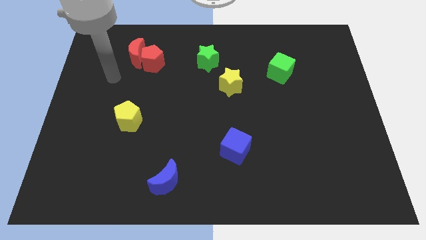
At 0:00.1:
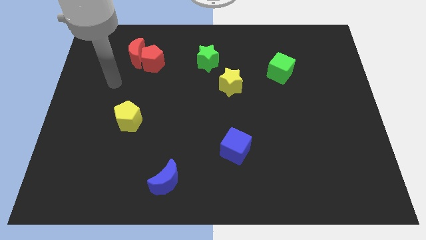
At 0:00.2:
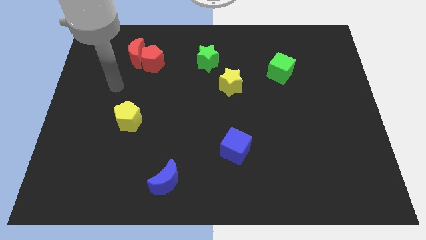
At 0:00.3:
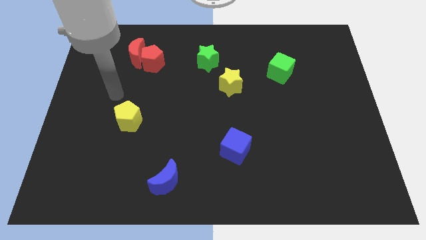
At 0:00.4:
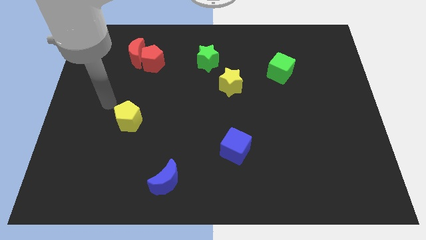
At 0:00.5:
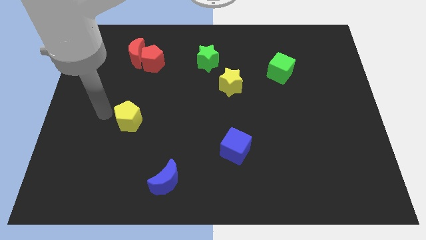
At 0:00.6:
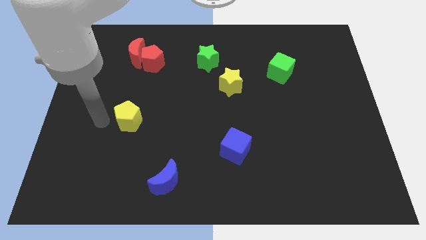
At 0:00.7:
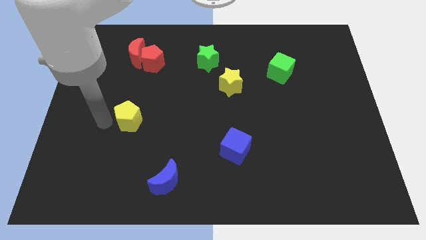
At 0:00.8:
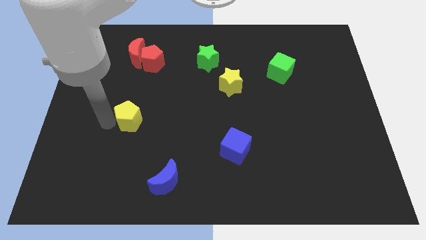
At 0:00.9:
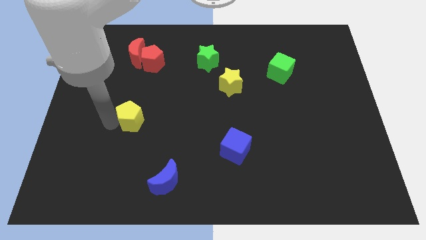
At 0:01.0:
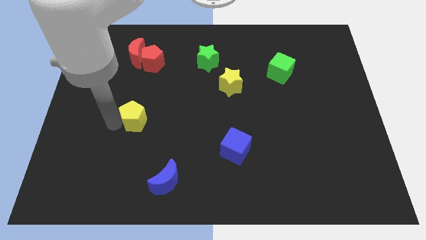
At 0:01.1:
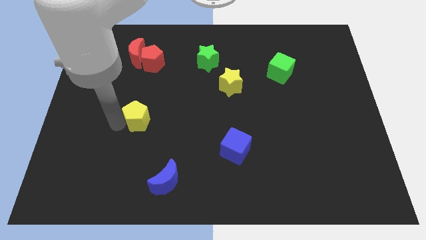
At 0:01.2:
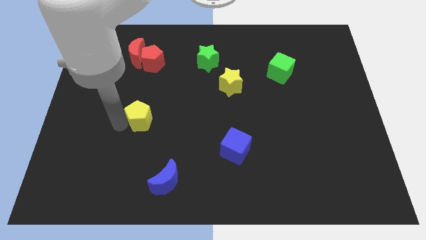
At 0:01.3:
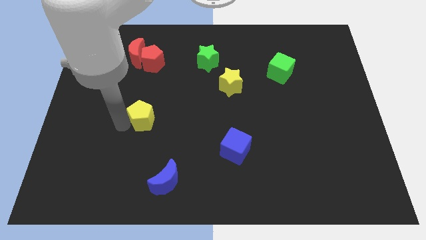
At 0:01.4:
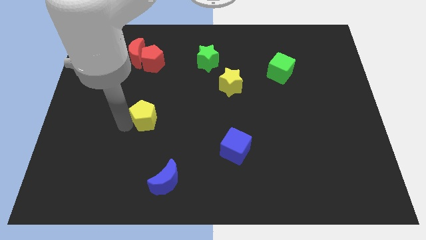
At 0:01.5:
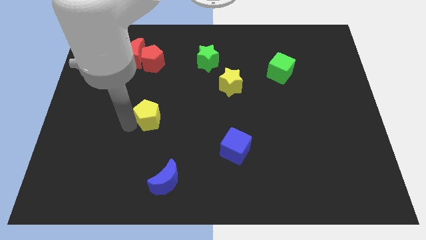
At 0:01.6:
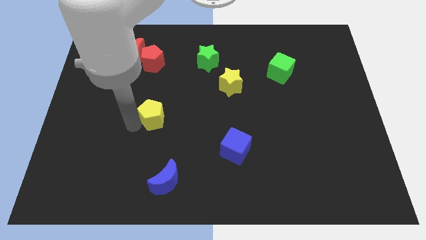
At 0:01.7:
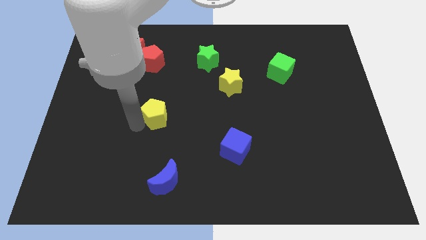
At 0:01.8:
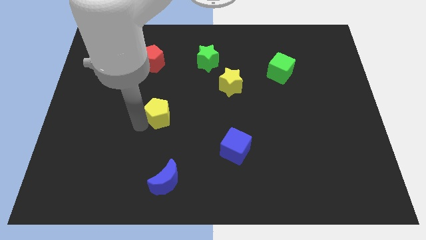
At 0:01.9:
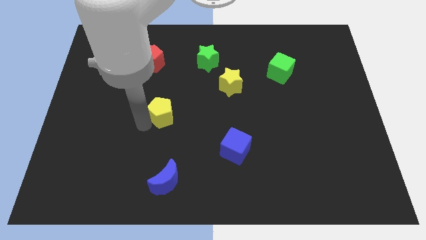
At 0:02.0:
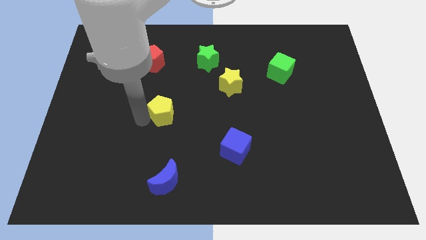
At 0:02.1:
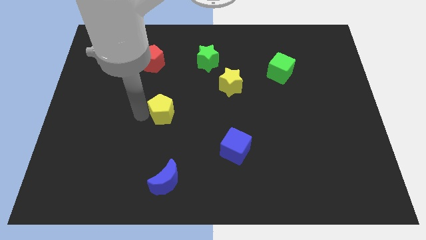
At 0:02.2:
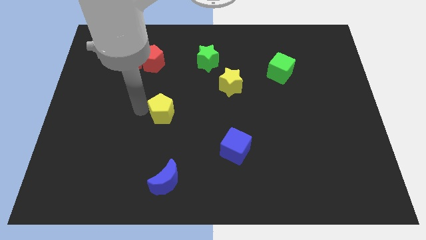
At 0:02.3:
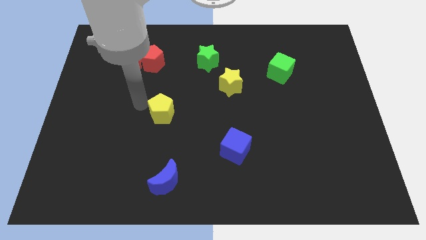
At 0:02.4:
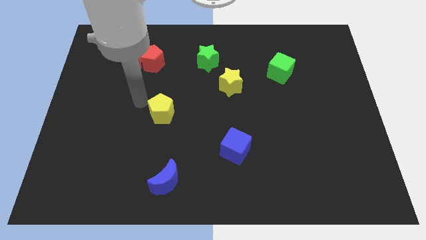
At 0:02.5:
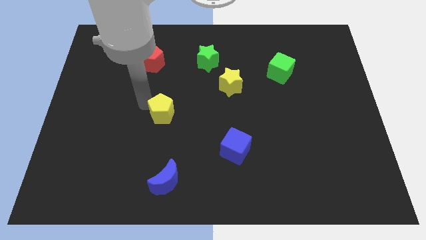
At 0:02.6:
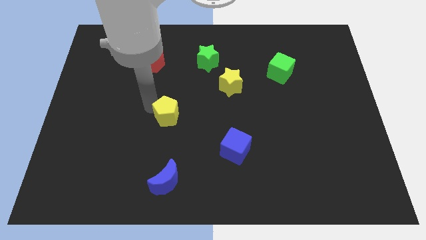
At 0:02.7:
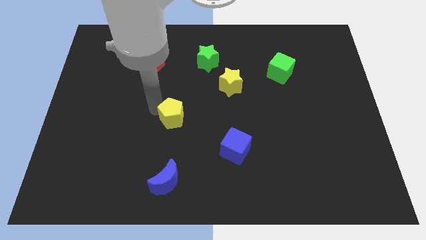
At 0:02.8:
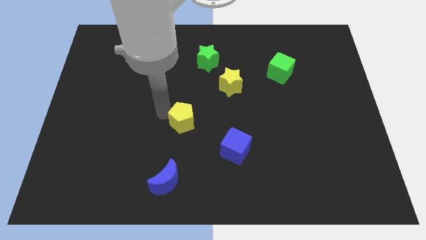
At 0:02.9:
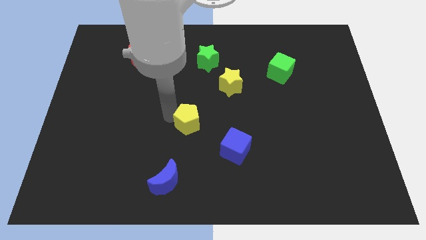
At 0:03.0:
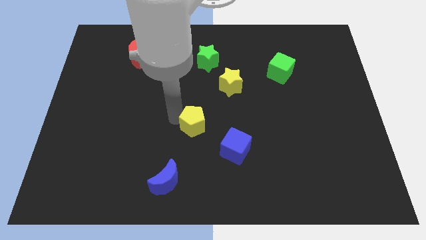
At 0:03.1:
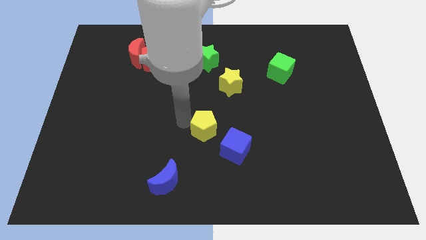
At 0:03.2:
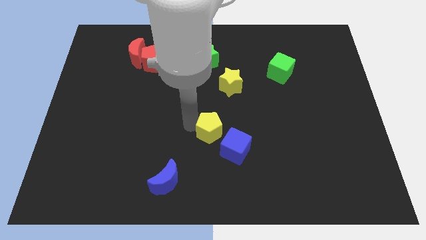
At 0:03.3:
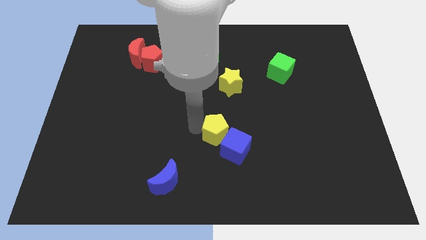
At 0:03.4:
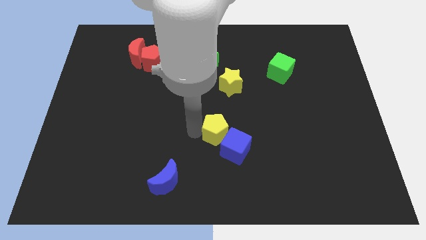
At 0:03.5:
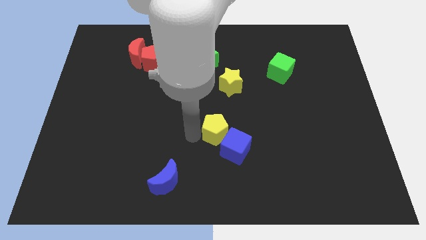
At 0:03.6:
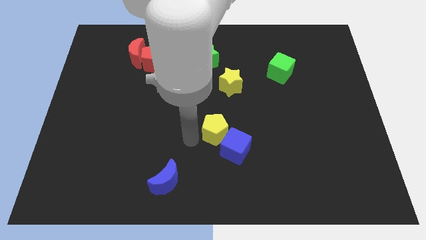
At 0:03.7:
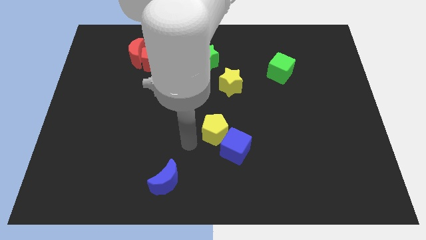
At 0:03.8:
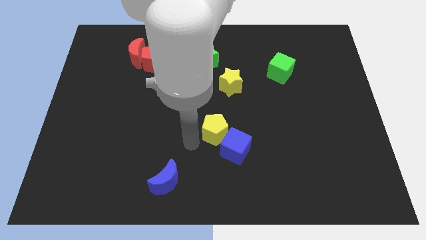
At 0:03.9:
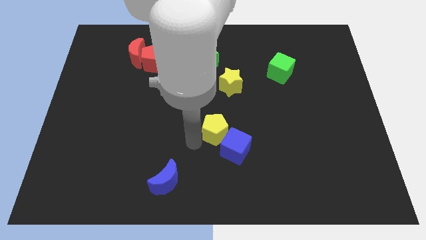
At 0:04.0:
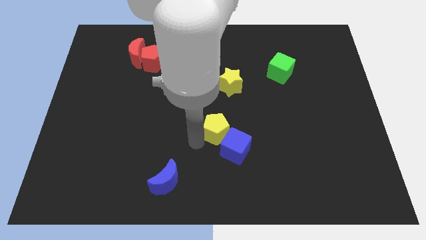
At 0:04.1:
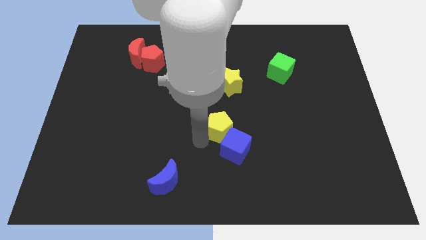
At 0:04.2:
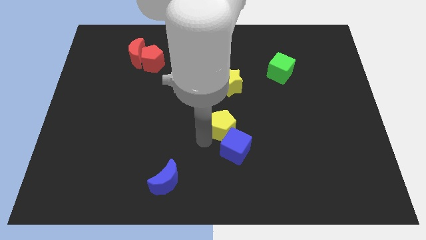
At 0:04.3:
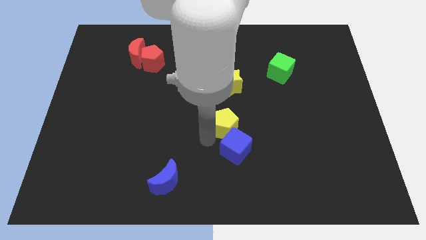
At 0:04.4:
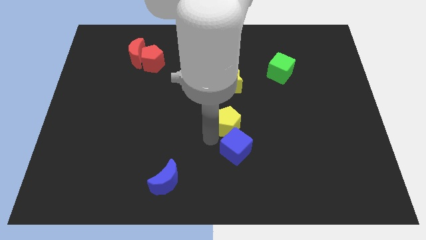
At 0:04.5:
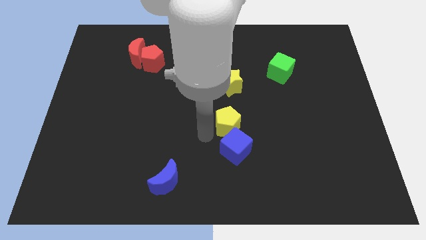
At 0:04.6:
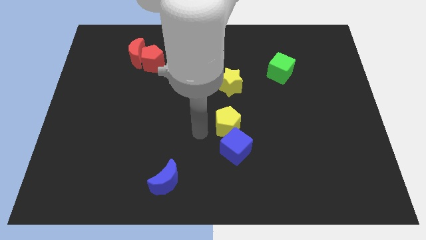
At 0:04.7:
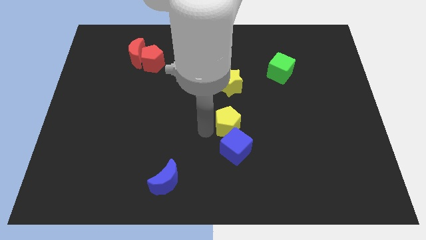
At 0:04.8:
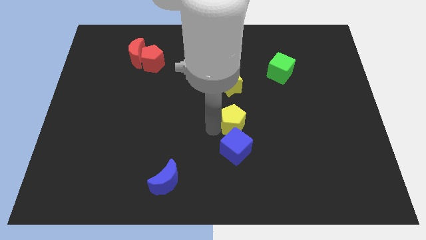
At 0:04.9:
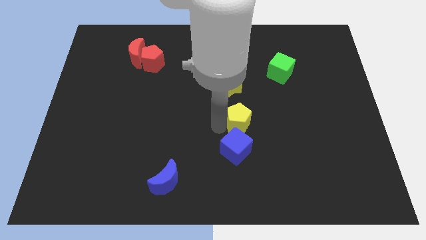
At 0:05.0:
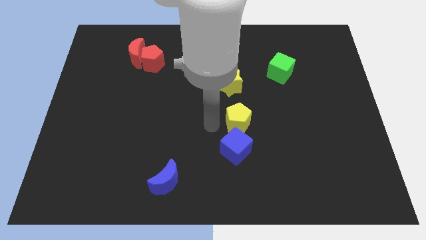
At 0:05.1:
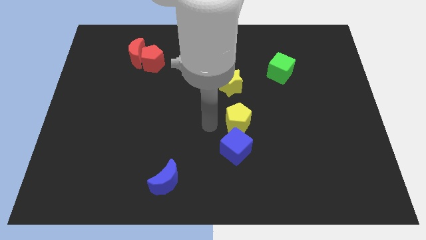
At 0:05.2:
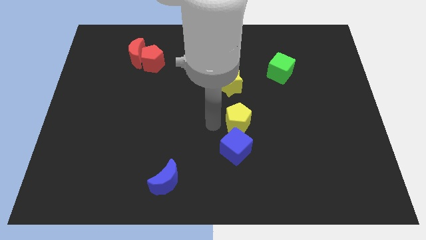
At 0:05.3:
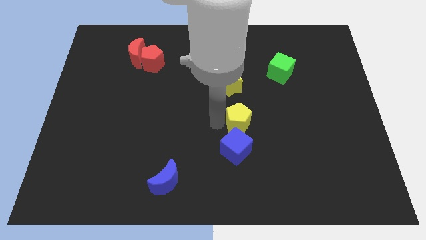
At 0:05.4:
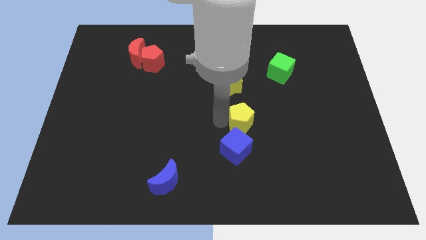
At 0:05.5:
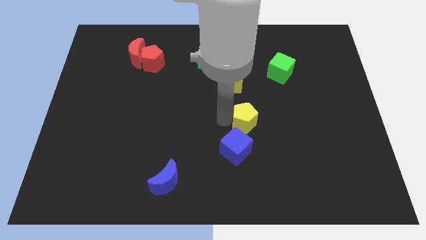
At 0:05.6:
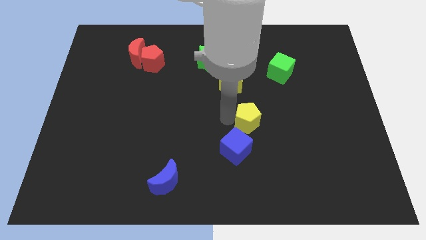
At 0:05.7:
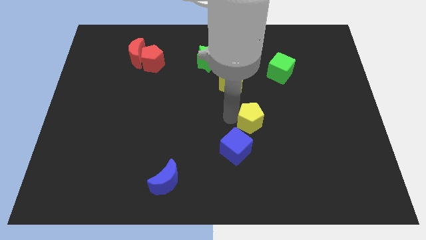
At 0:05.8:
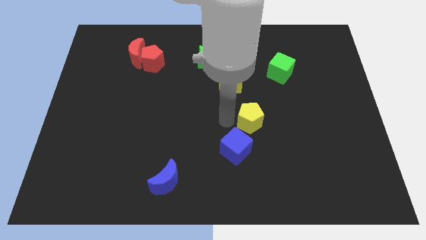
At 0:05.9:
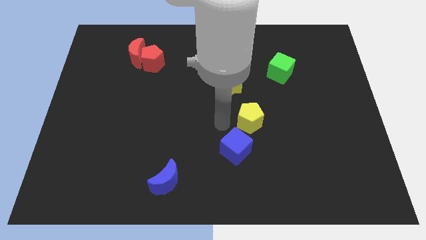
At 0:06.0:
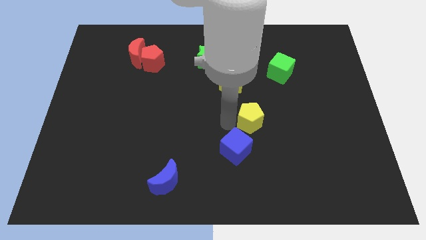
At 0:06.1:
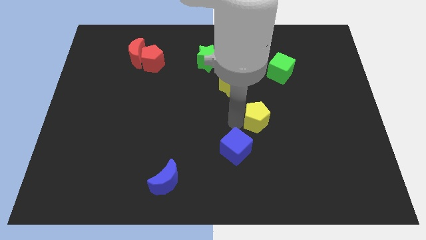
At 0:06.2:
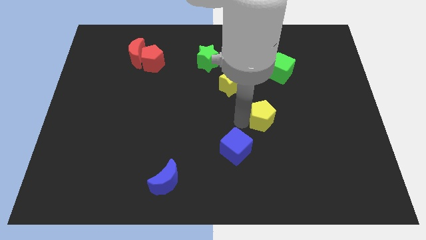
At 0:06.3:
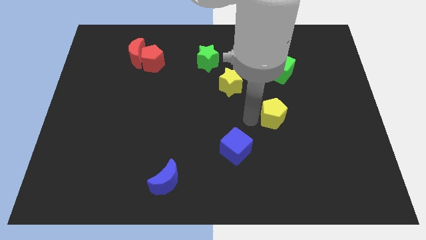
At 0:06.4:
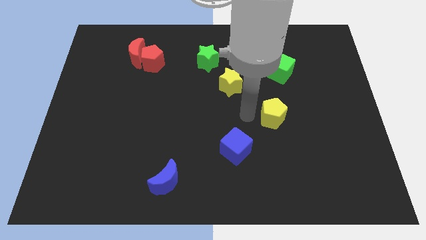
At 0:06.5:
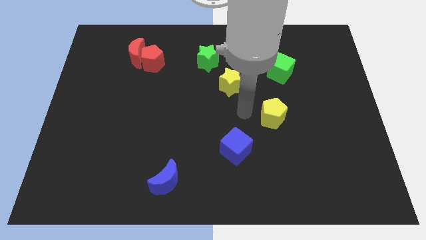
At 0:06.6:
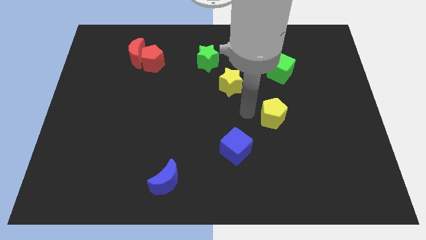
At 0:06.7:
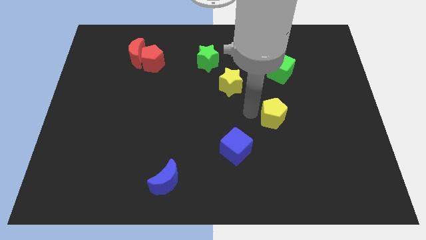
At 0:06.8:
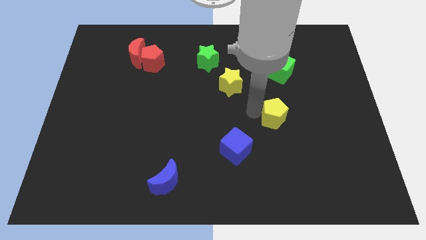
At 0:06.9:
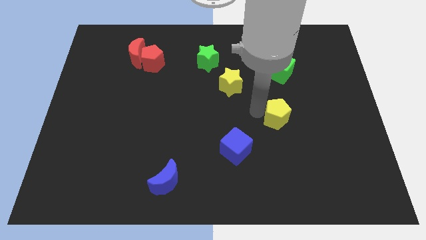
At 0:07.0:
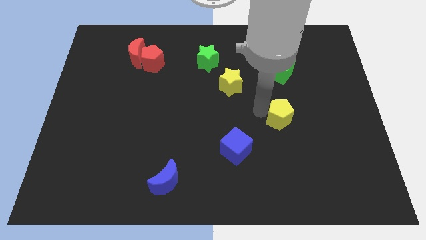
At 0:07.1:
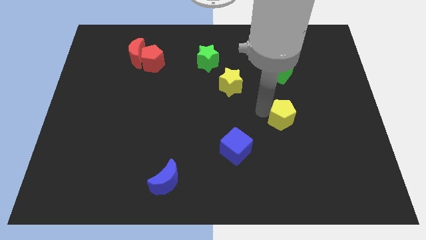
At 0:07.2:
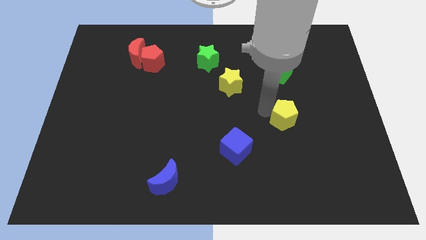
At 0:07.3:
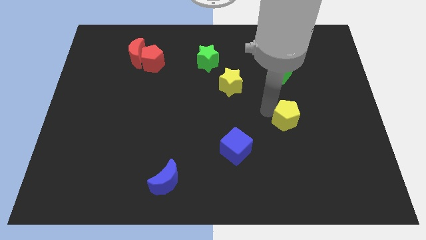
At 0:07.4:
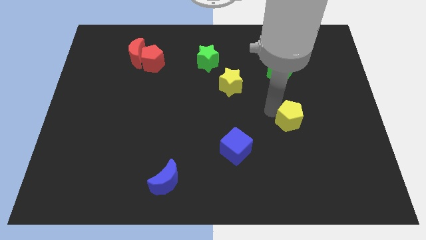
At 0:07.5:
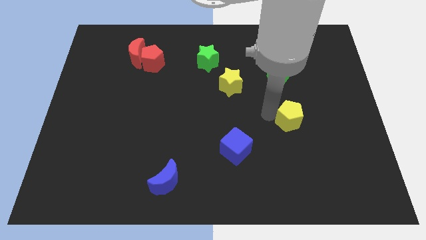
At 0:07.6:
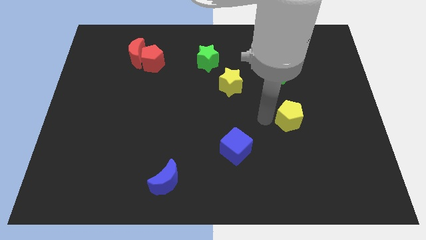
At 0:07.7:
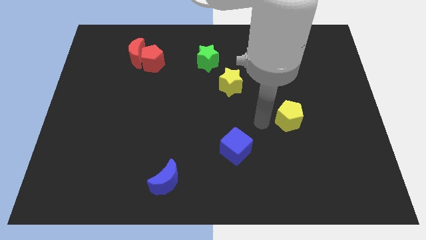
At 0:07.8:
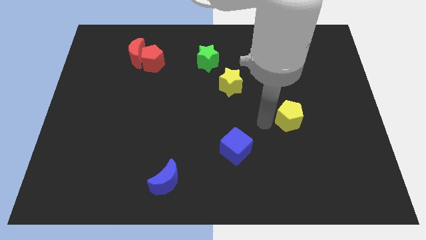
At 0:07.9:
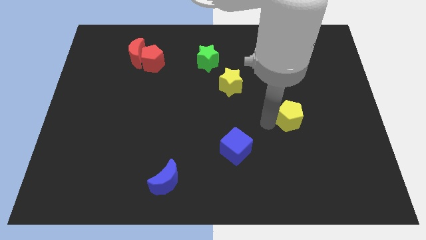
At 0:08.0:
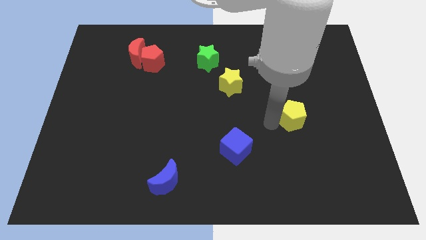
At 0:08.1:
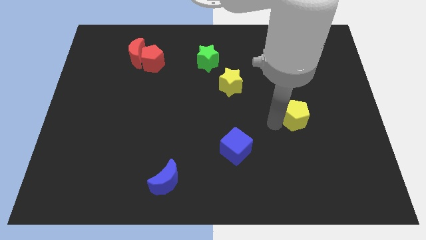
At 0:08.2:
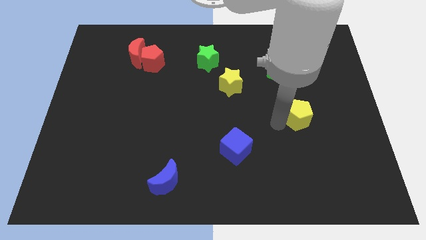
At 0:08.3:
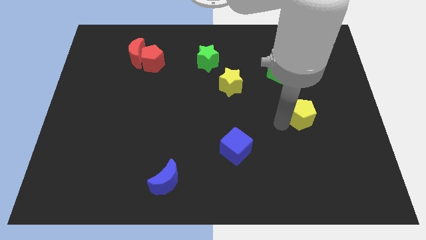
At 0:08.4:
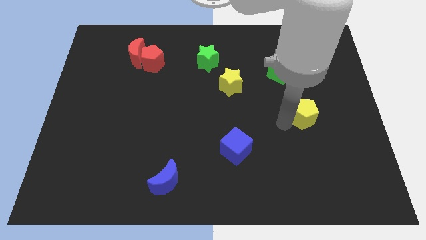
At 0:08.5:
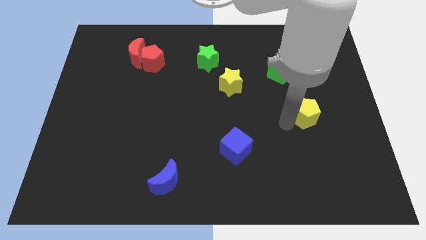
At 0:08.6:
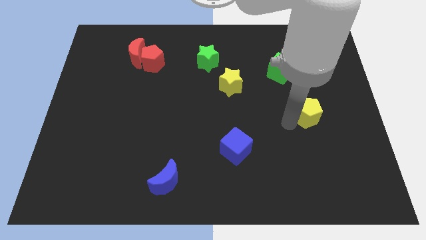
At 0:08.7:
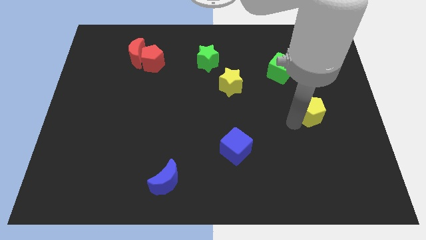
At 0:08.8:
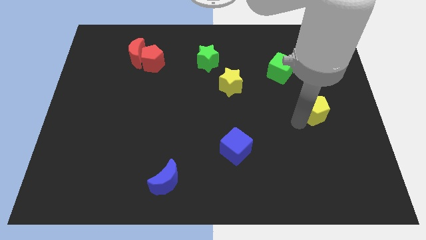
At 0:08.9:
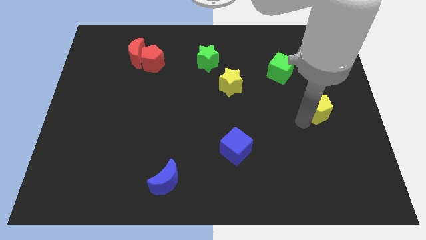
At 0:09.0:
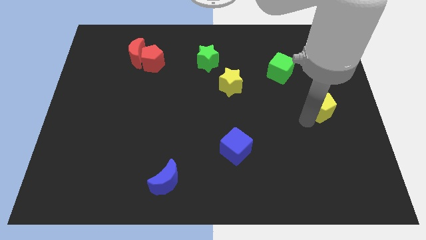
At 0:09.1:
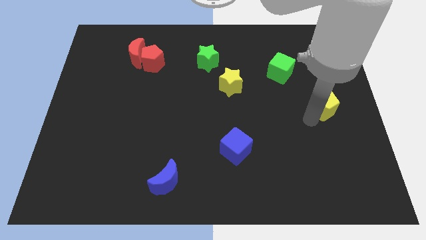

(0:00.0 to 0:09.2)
slide the yellow pentagon to the right side of the board
